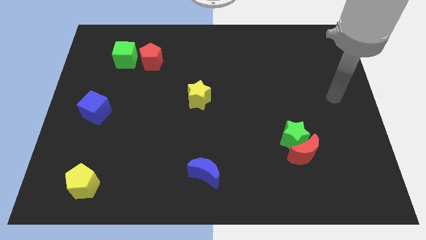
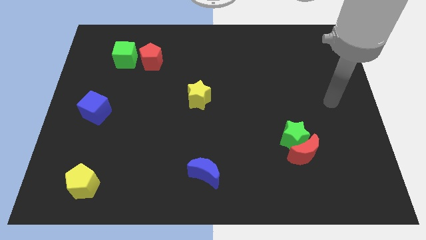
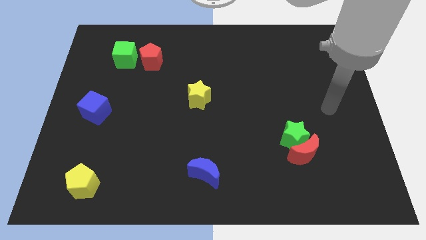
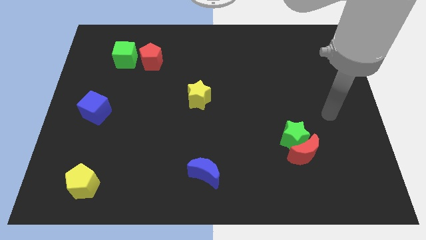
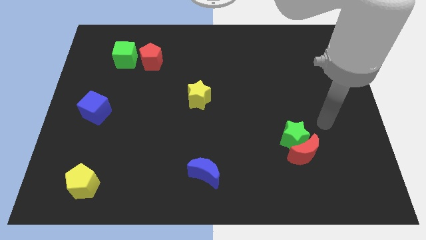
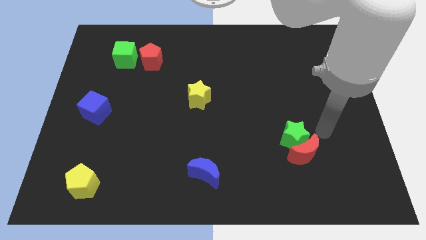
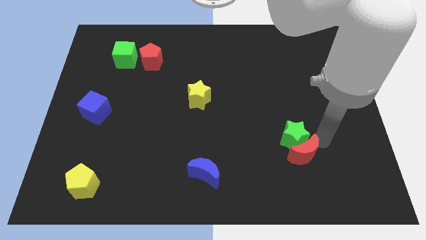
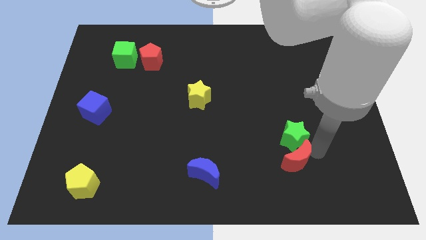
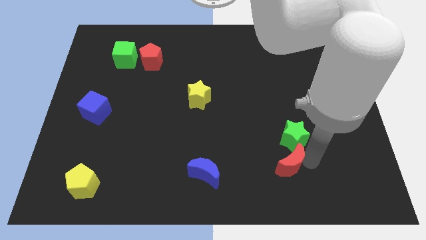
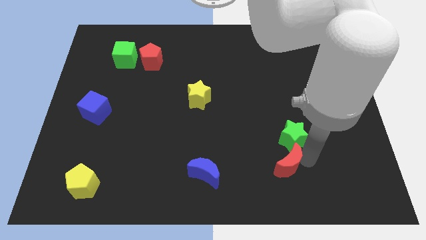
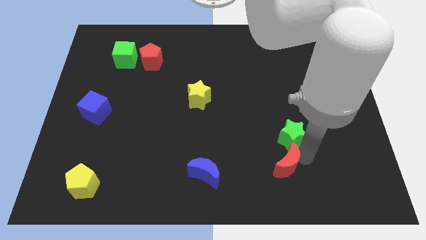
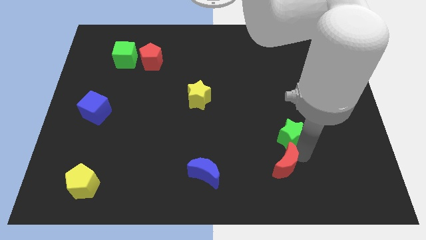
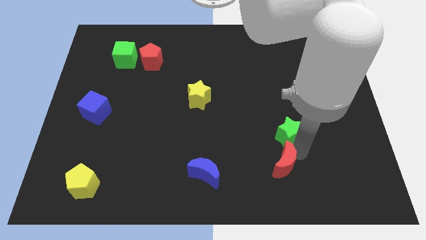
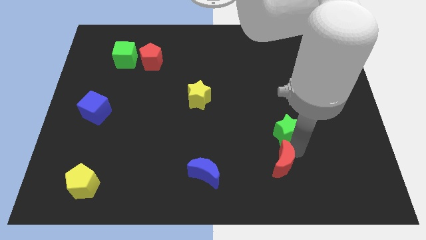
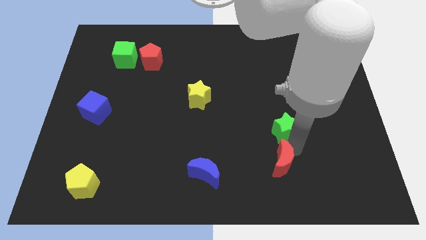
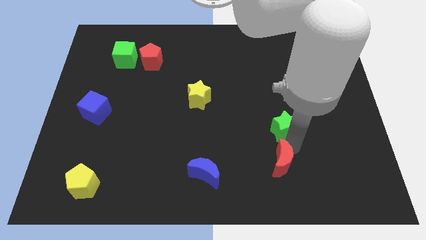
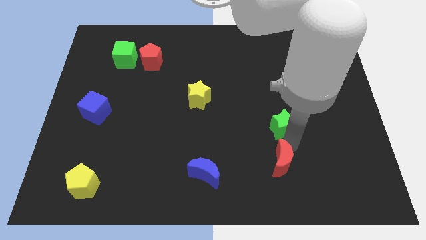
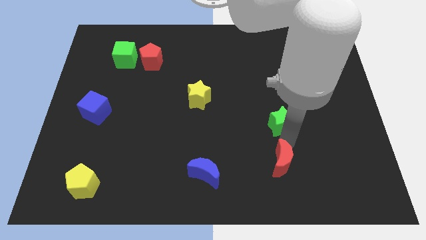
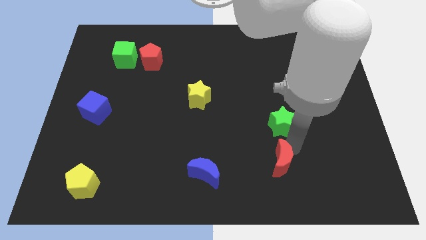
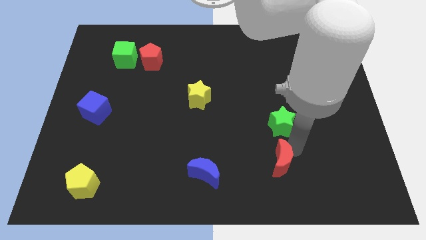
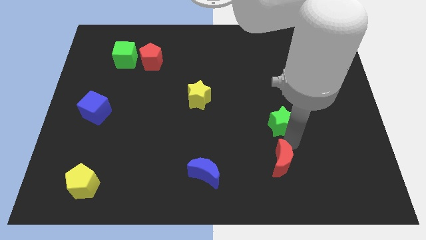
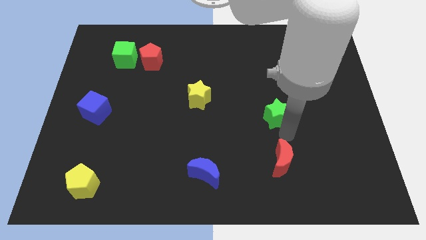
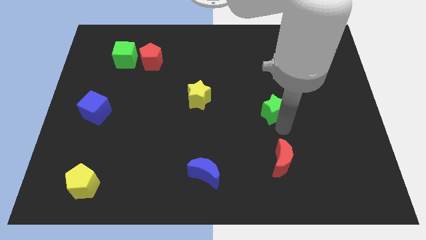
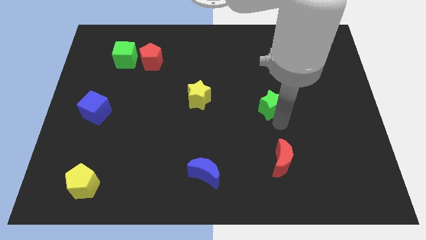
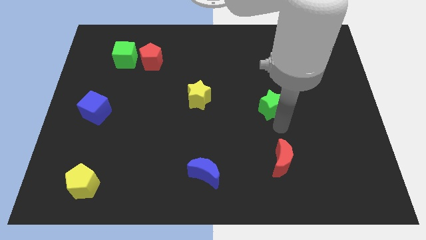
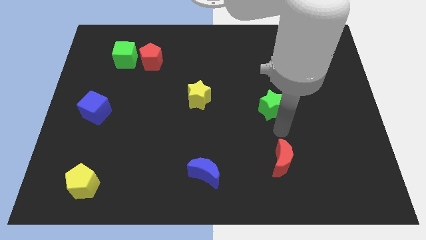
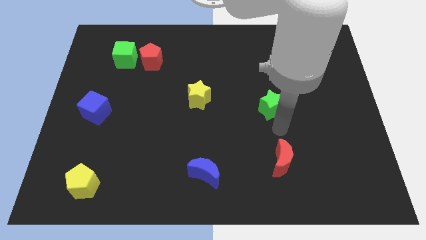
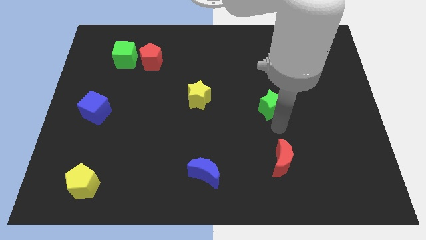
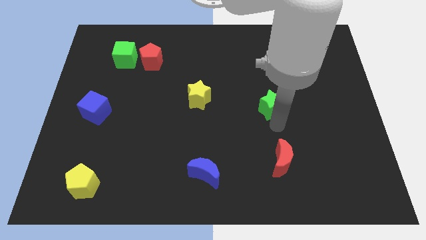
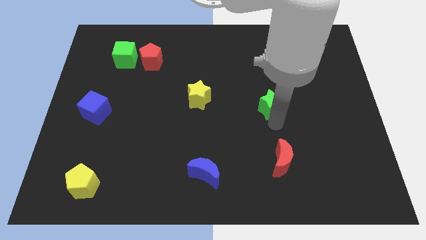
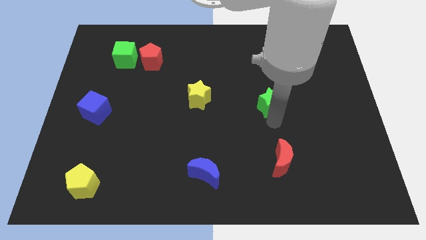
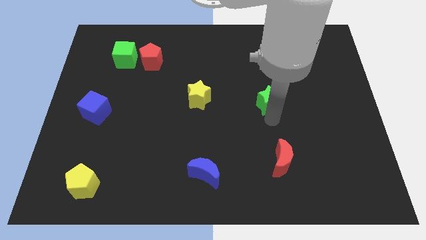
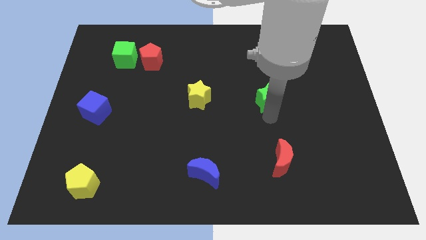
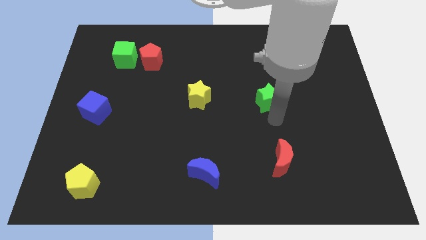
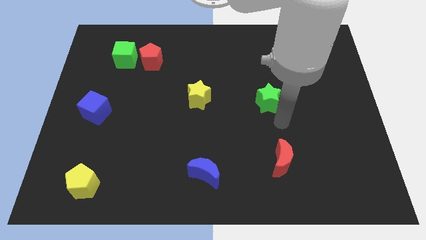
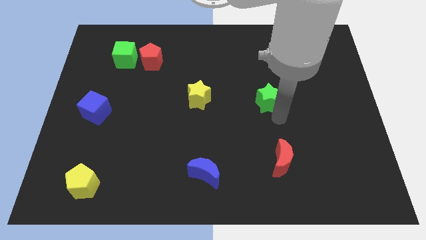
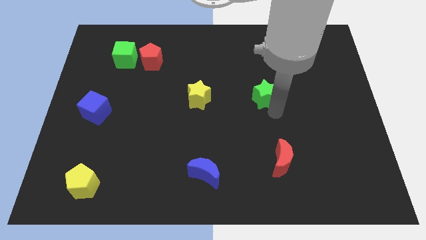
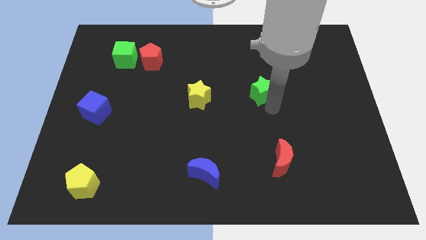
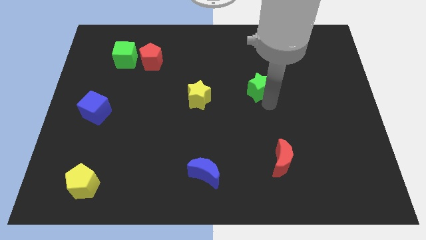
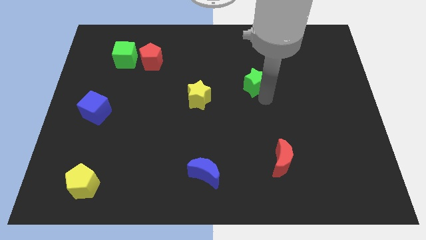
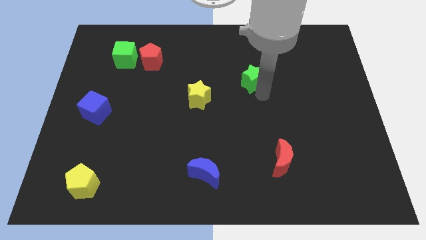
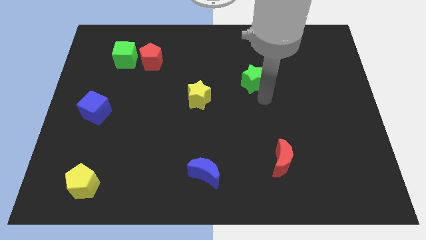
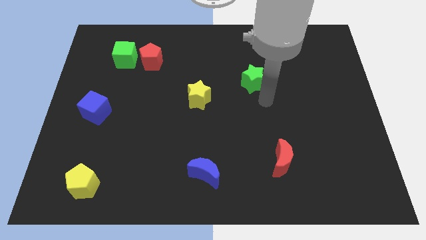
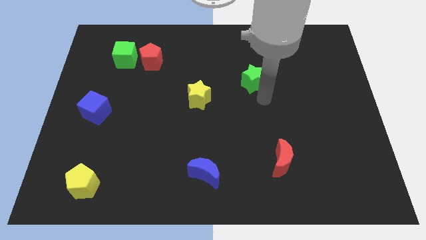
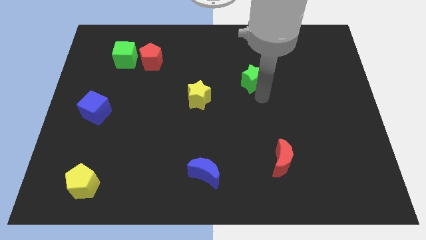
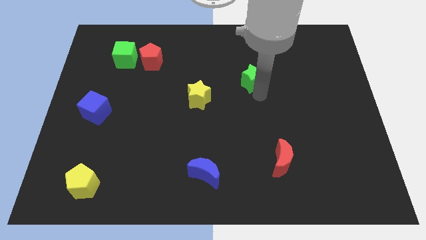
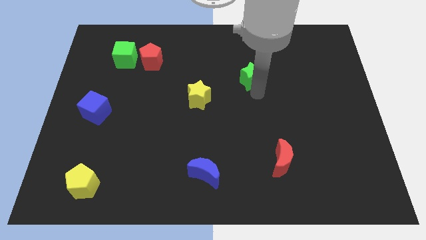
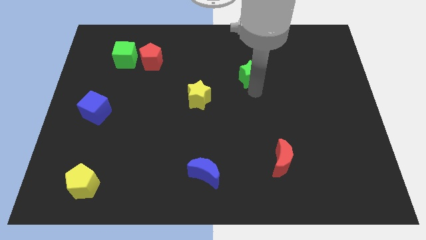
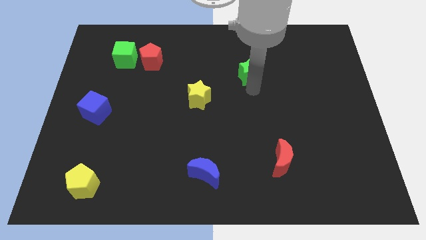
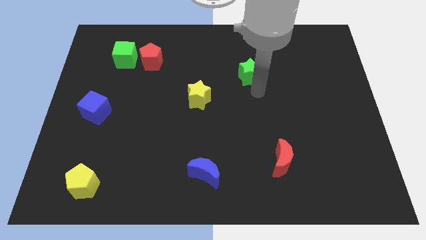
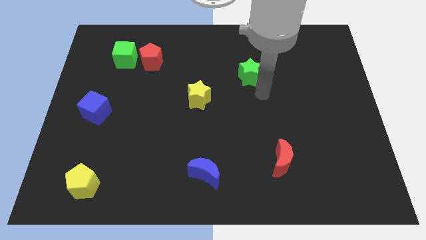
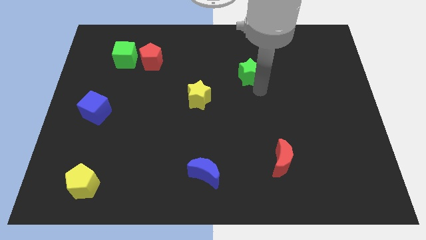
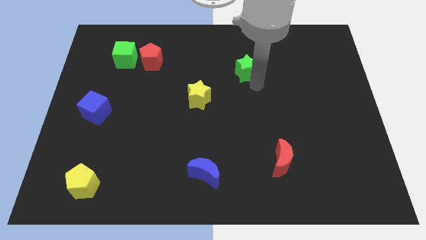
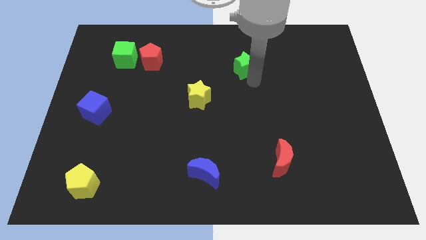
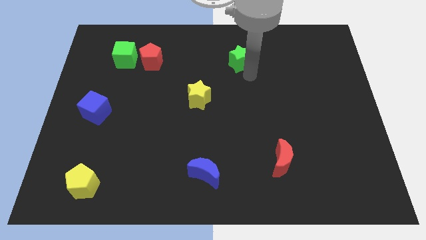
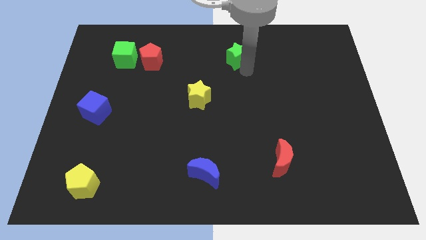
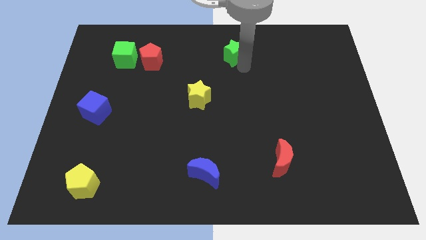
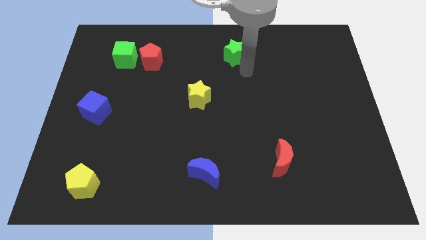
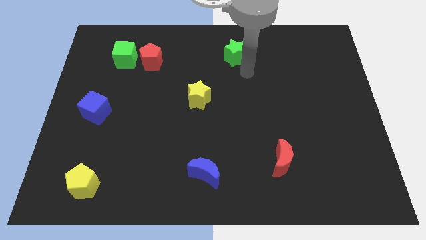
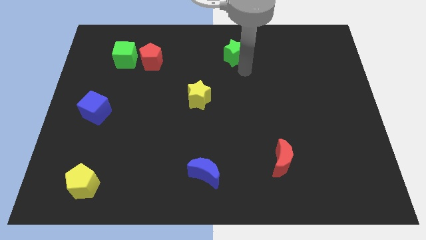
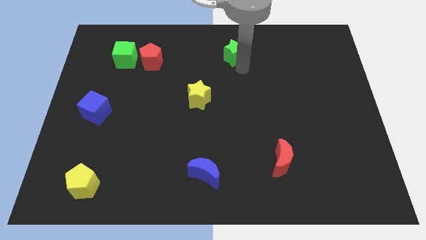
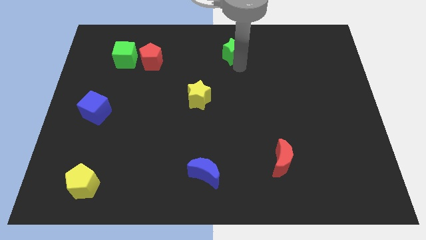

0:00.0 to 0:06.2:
push the green star to the top

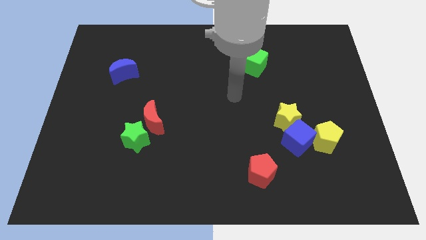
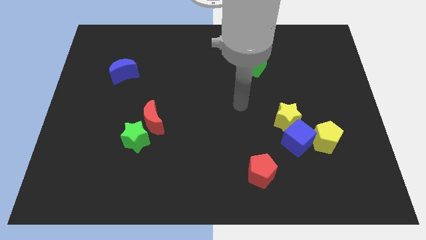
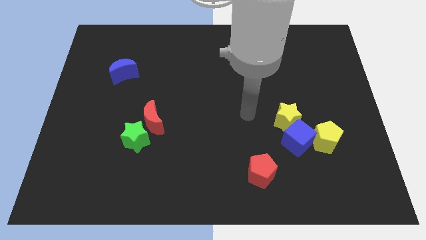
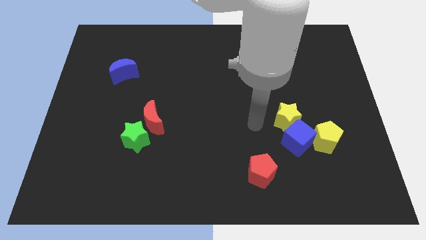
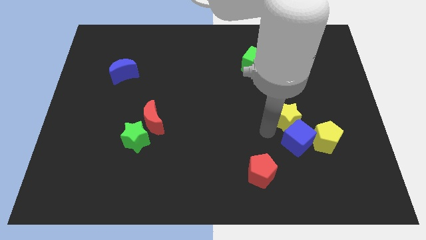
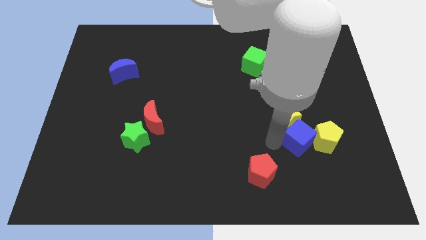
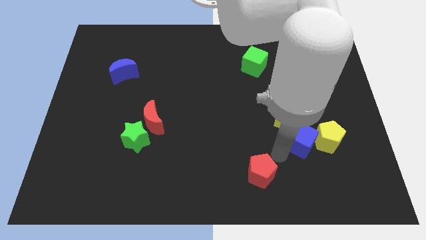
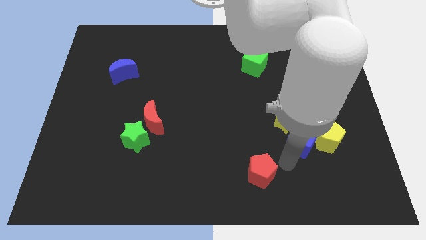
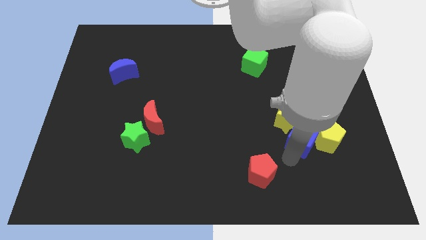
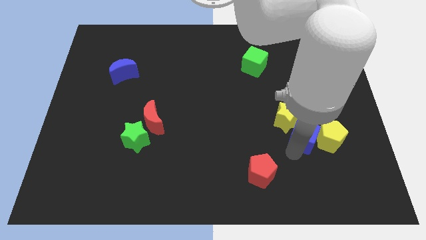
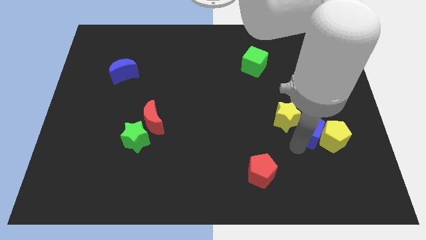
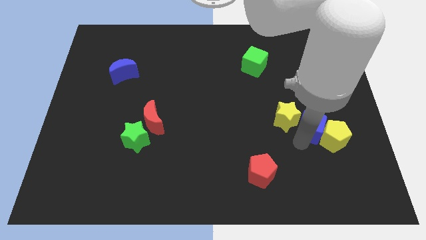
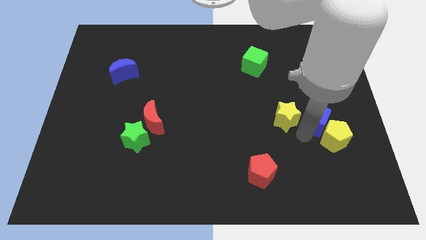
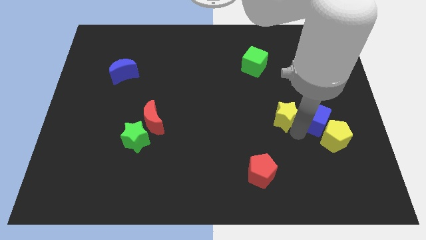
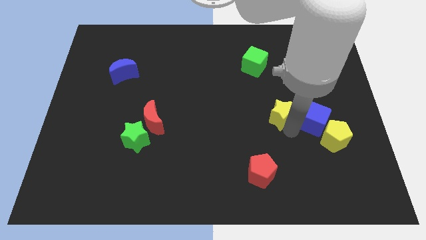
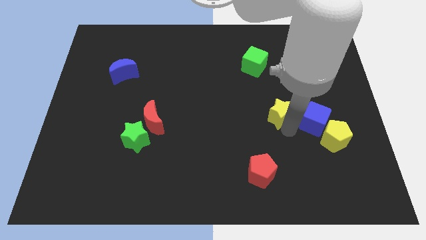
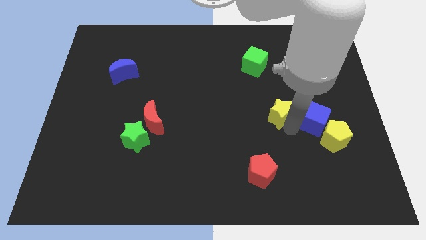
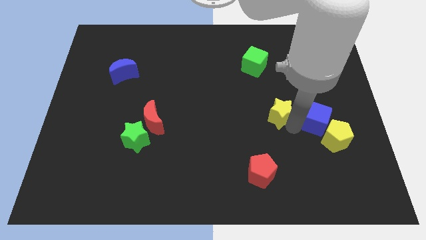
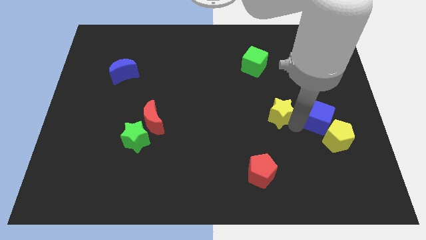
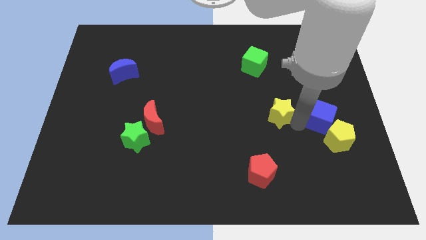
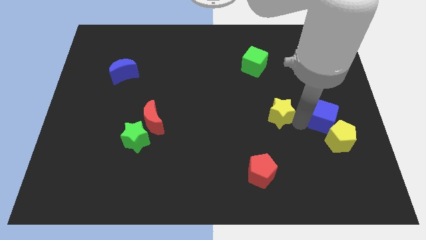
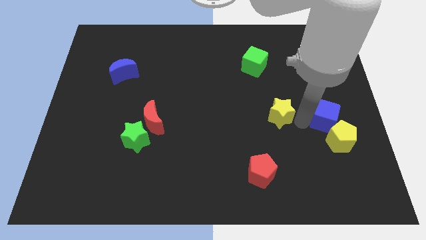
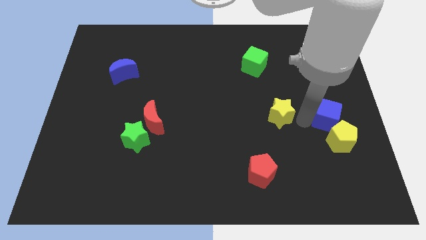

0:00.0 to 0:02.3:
move the blue cube to the right side of the board
